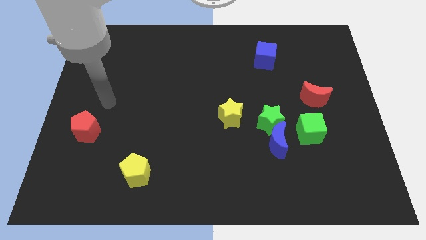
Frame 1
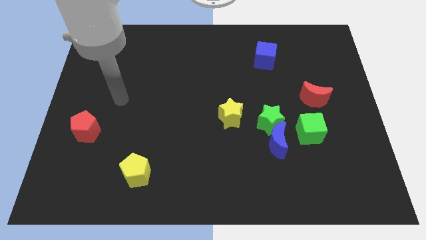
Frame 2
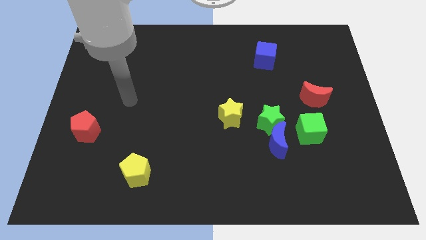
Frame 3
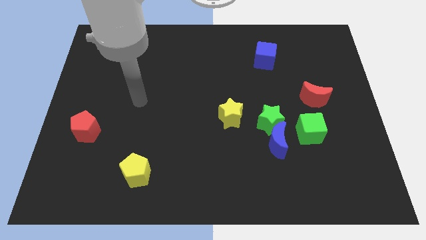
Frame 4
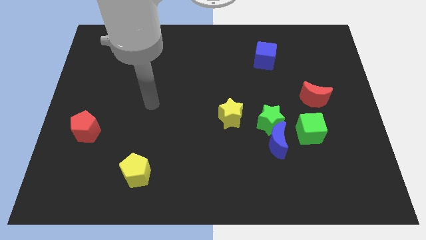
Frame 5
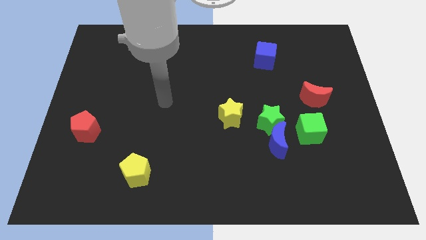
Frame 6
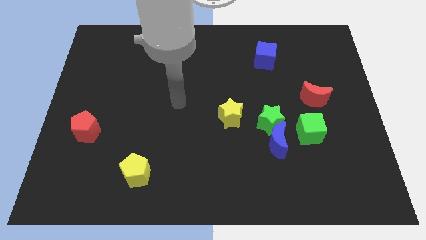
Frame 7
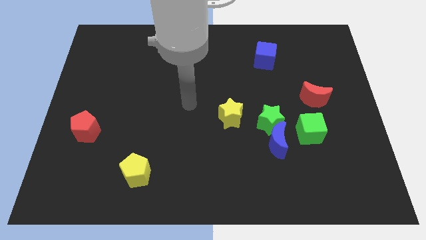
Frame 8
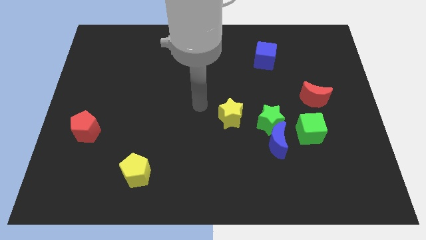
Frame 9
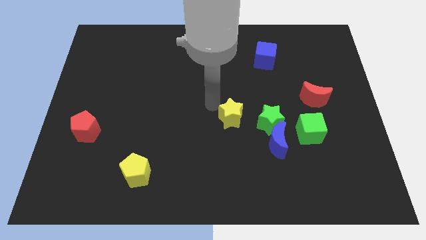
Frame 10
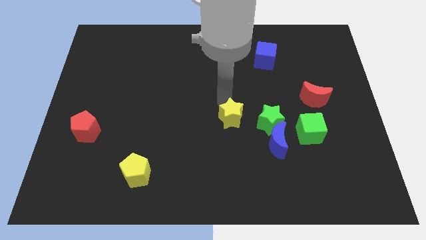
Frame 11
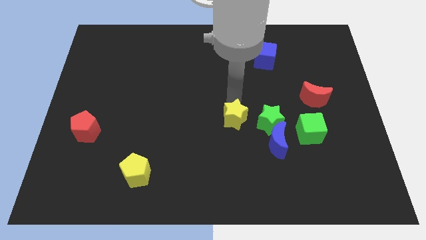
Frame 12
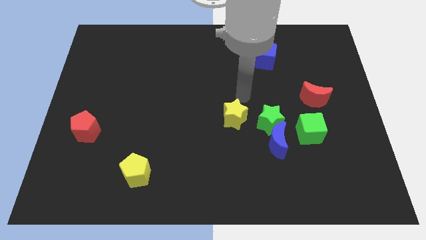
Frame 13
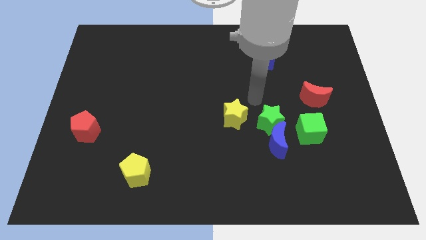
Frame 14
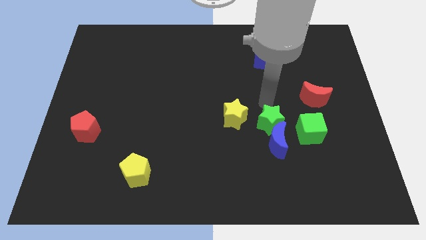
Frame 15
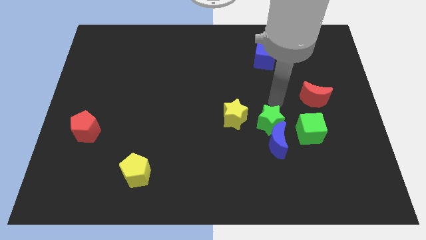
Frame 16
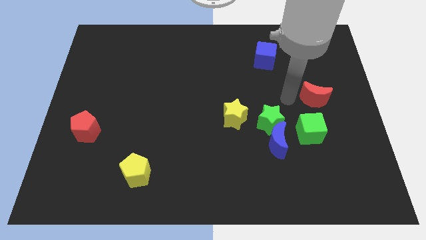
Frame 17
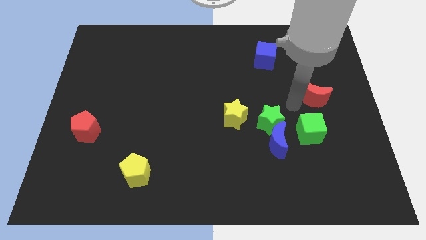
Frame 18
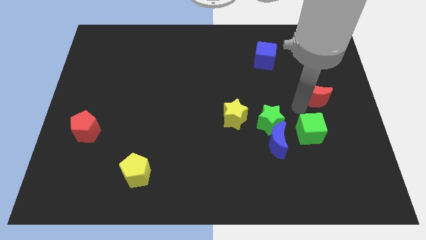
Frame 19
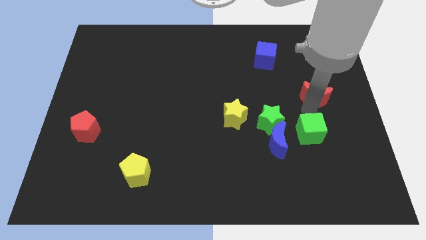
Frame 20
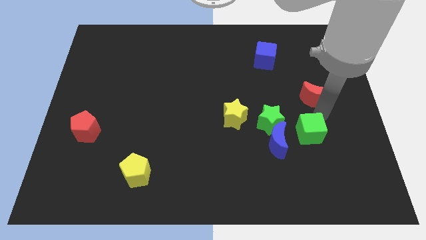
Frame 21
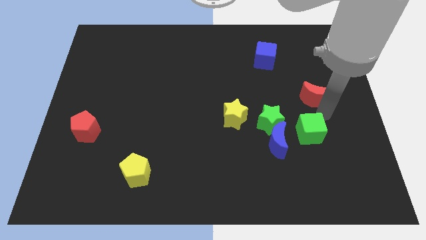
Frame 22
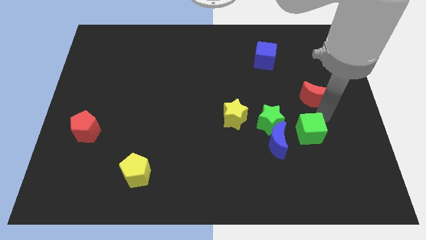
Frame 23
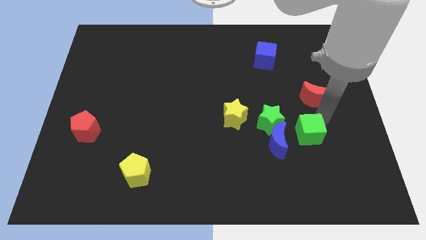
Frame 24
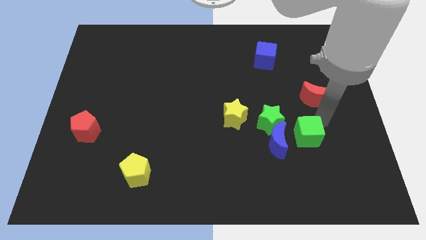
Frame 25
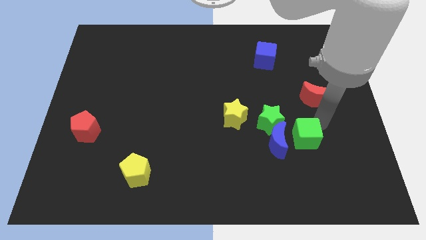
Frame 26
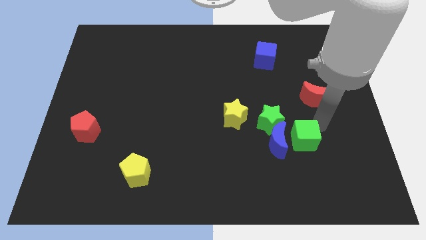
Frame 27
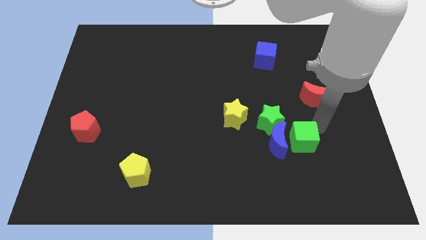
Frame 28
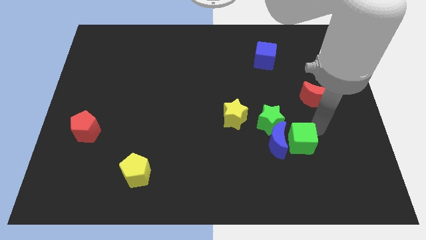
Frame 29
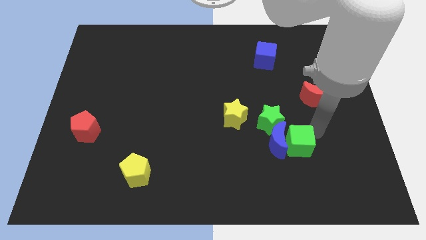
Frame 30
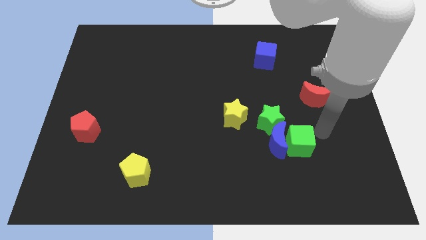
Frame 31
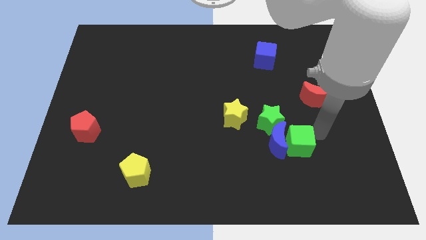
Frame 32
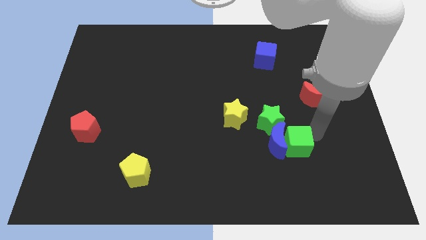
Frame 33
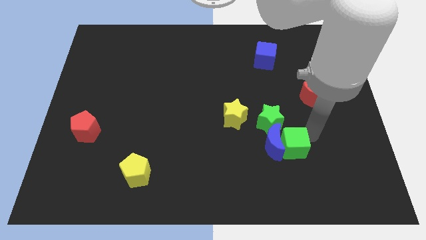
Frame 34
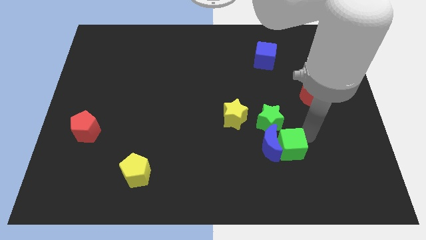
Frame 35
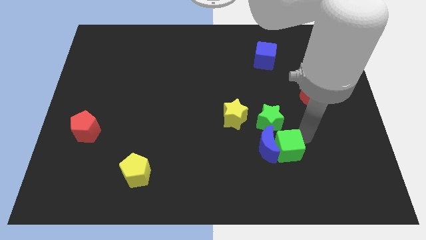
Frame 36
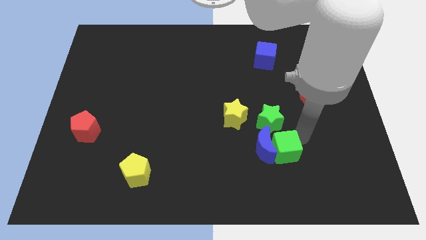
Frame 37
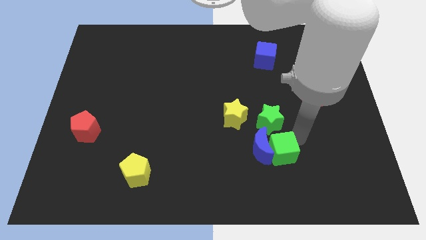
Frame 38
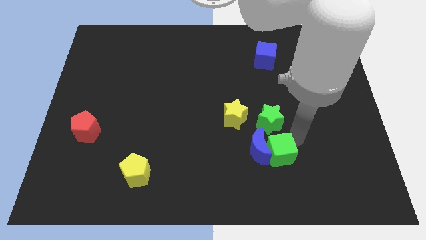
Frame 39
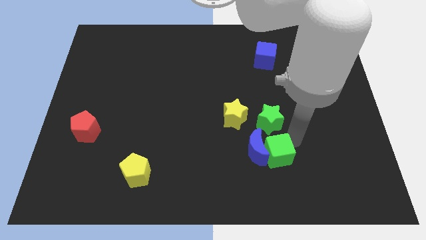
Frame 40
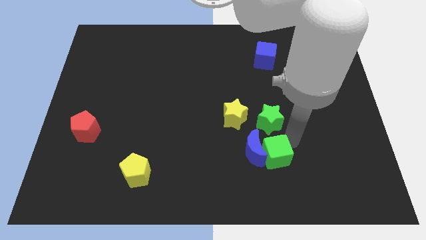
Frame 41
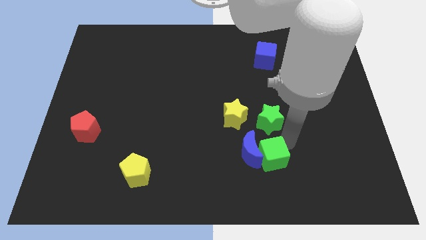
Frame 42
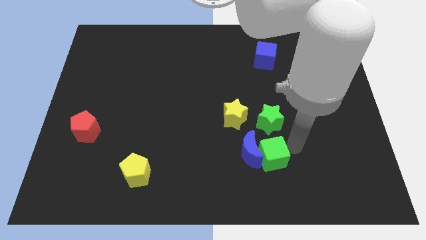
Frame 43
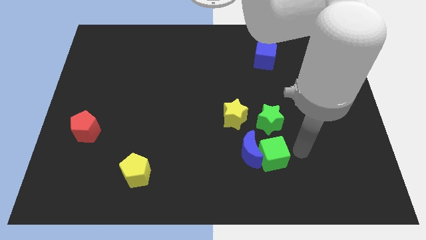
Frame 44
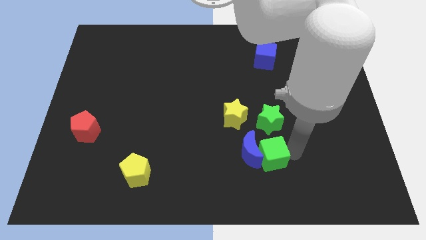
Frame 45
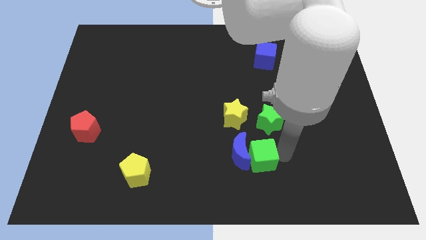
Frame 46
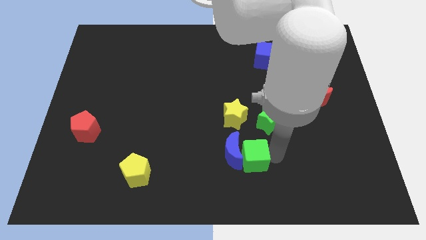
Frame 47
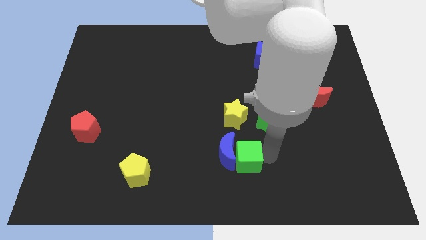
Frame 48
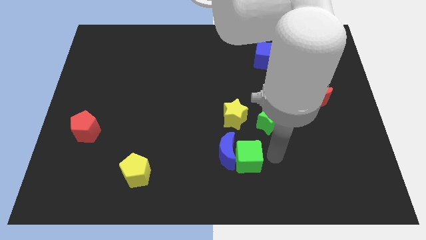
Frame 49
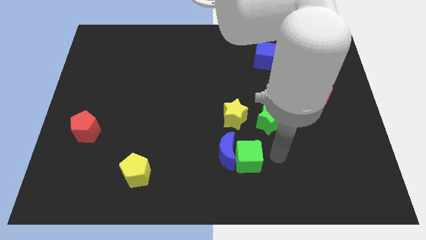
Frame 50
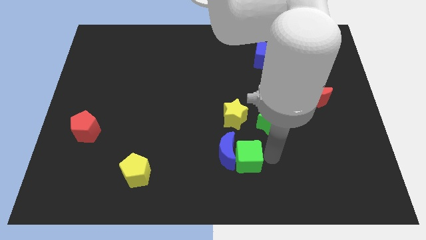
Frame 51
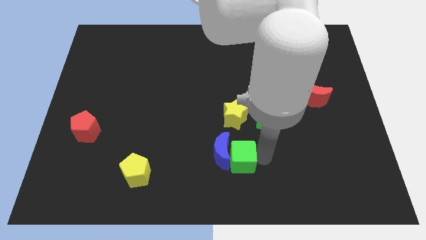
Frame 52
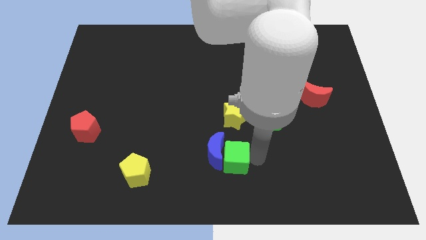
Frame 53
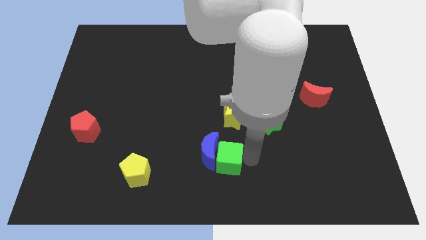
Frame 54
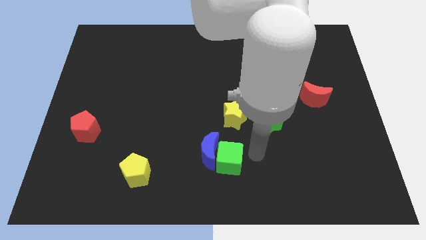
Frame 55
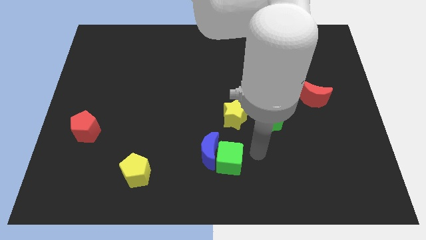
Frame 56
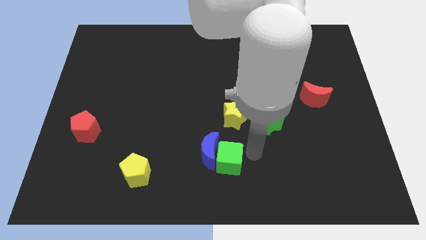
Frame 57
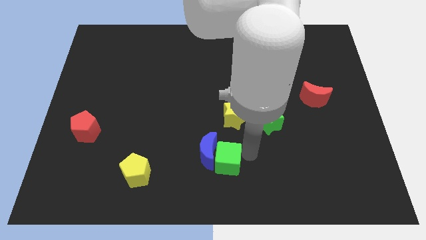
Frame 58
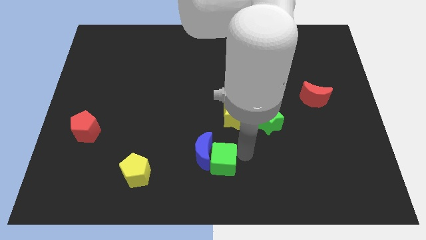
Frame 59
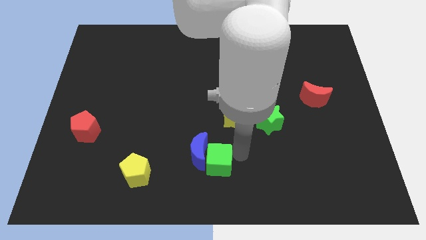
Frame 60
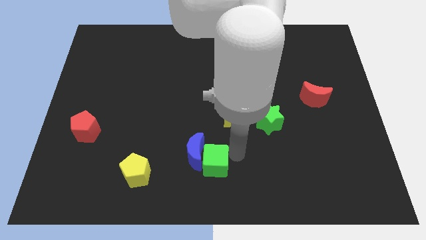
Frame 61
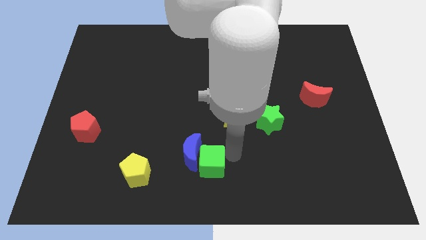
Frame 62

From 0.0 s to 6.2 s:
slide the green cube to the right side of the yellow pentagon

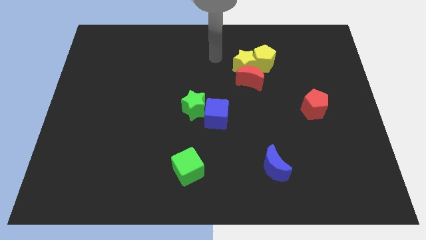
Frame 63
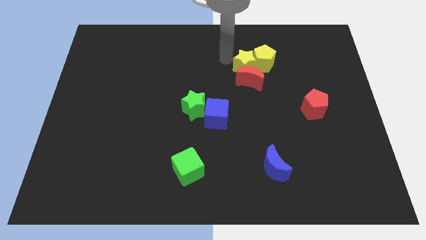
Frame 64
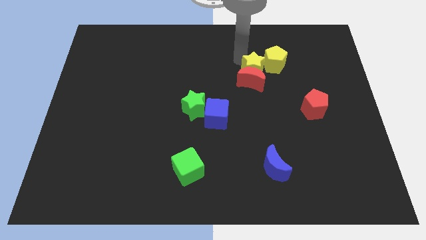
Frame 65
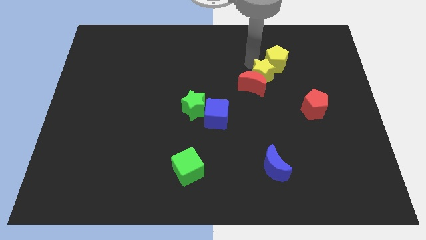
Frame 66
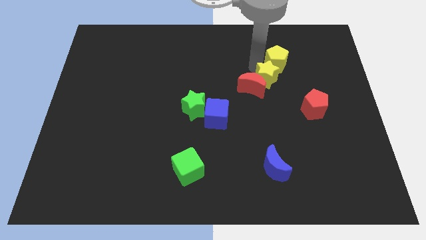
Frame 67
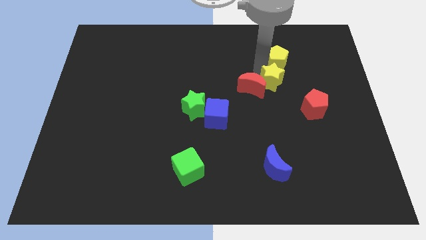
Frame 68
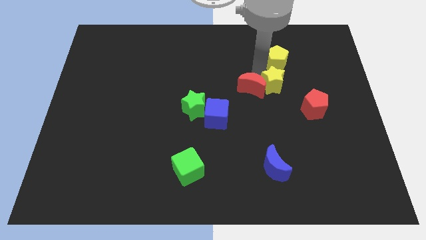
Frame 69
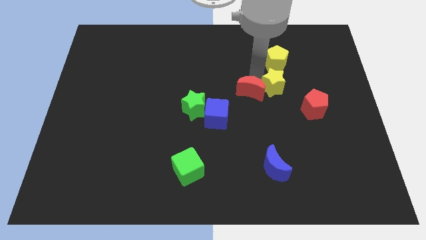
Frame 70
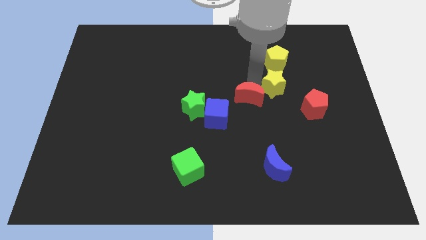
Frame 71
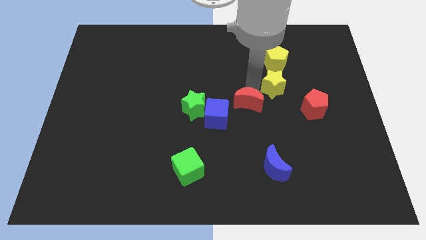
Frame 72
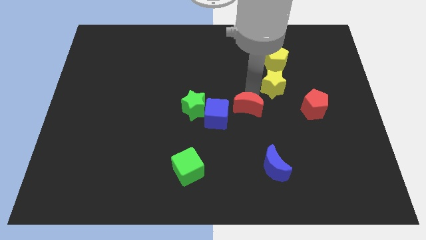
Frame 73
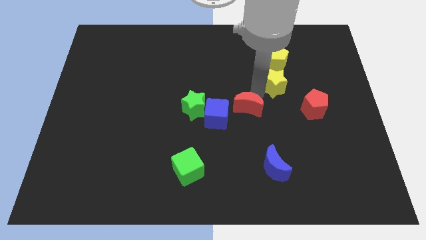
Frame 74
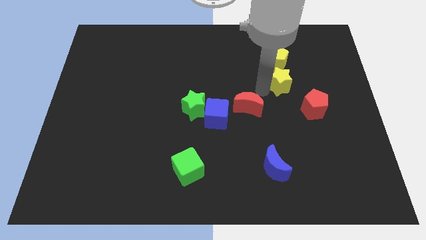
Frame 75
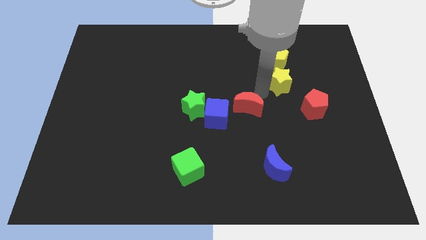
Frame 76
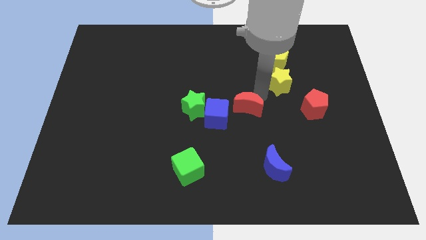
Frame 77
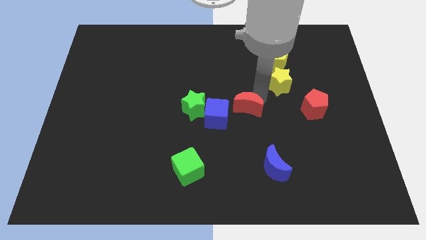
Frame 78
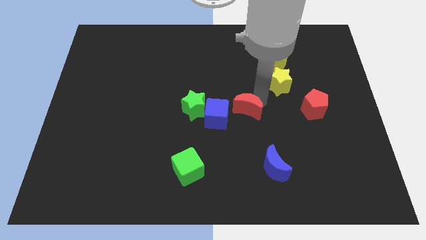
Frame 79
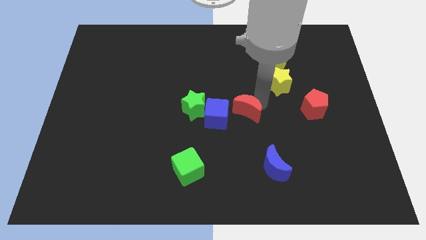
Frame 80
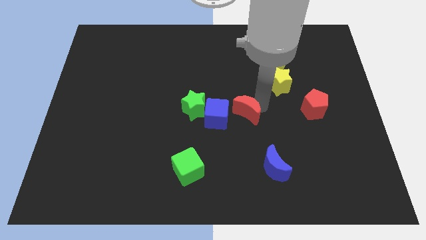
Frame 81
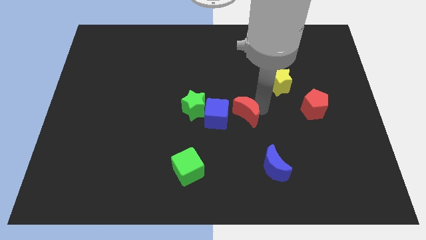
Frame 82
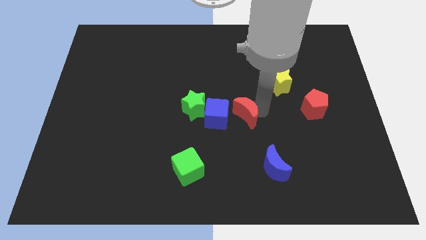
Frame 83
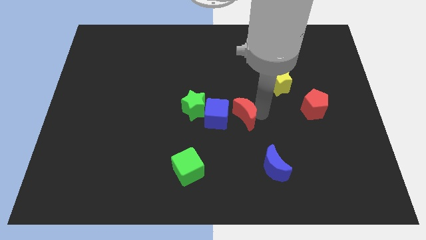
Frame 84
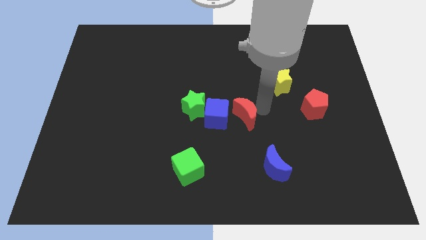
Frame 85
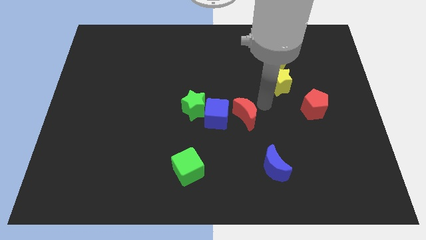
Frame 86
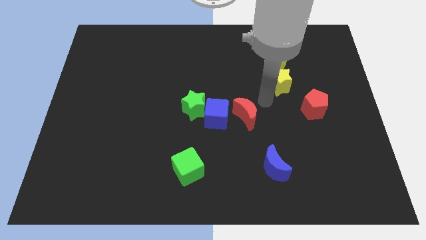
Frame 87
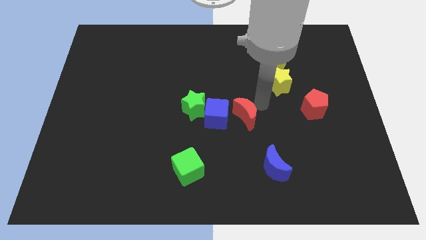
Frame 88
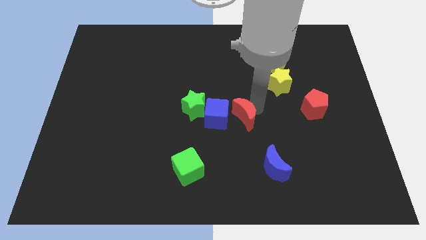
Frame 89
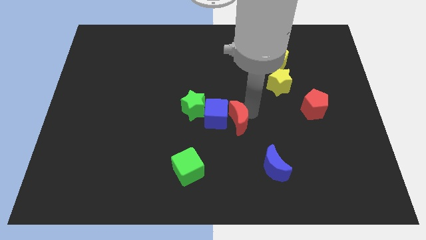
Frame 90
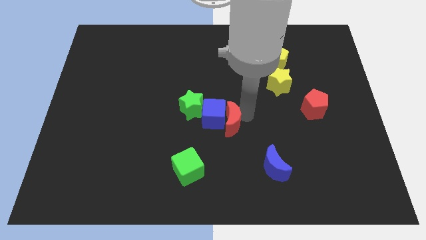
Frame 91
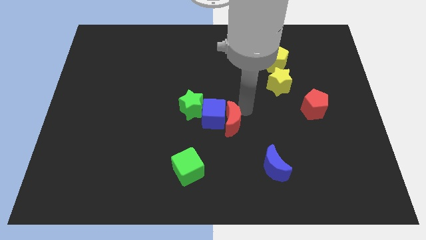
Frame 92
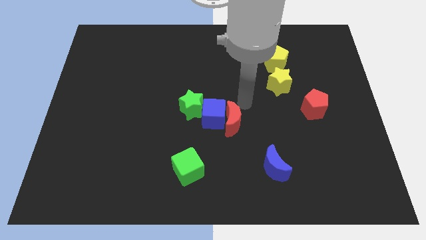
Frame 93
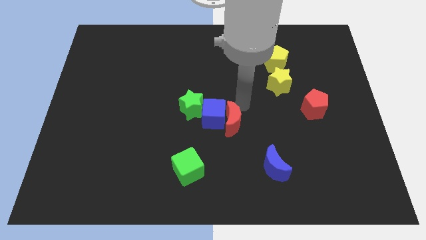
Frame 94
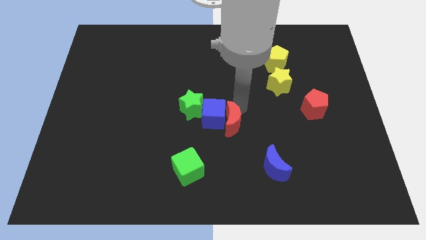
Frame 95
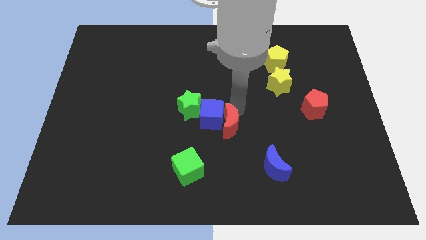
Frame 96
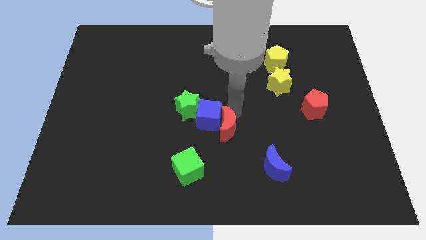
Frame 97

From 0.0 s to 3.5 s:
put the red moon to the bottom of the blue cube
